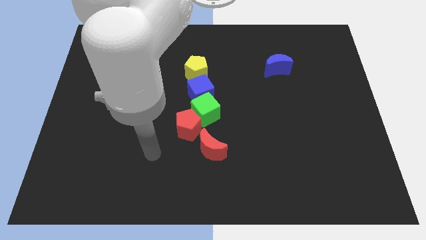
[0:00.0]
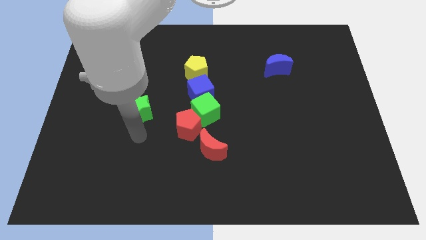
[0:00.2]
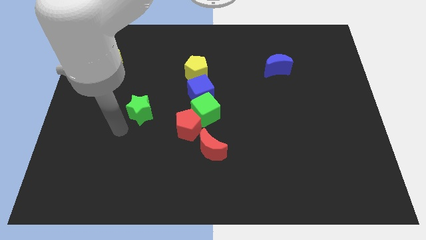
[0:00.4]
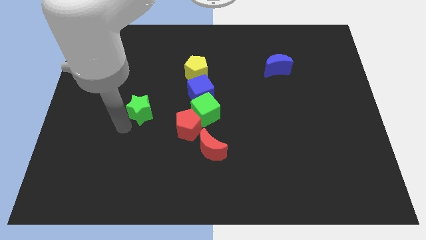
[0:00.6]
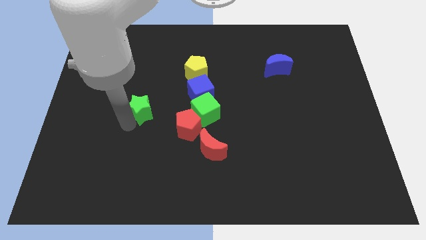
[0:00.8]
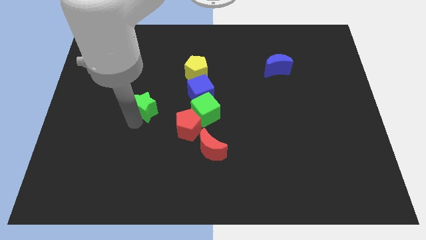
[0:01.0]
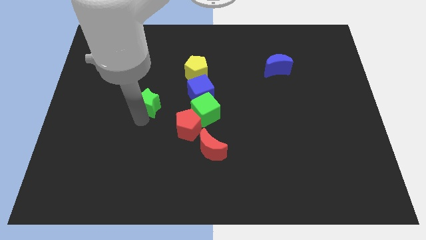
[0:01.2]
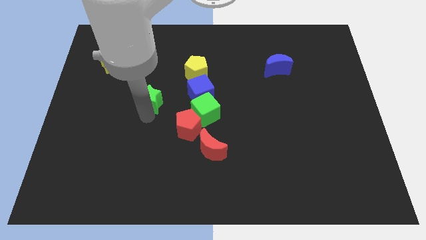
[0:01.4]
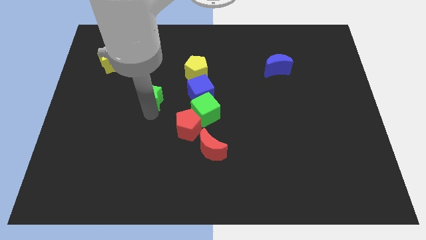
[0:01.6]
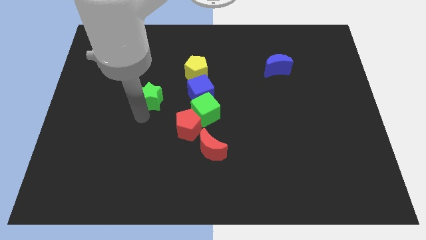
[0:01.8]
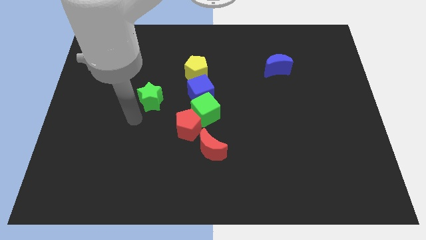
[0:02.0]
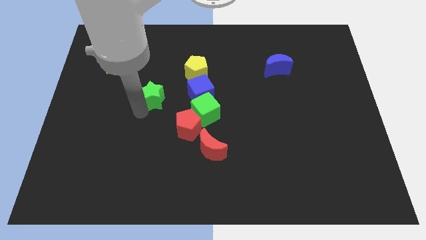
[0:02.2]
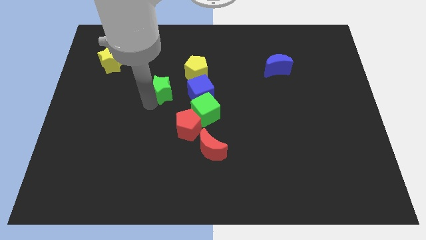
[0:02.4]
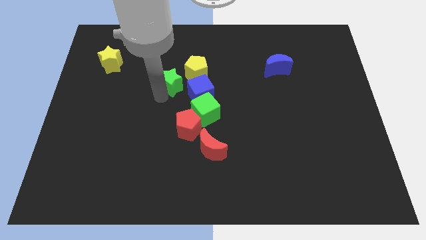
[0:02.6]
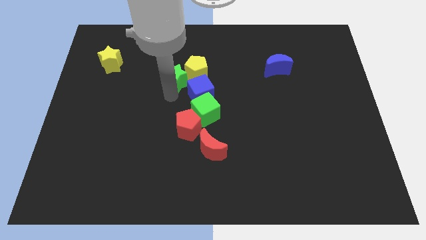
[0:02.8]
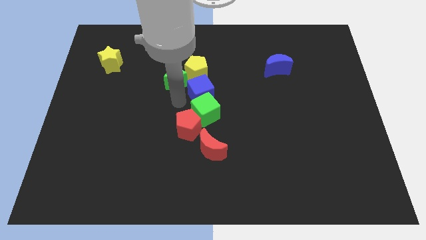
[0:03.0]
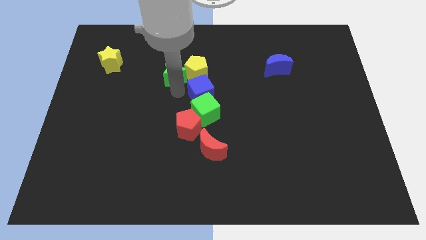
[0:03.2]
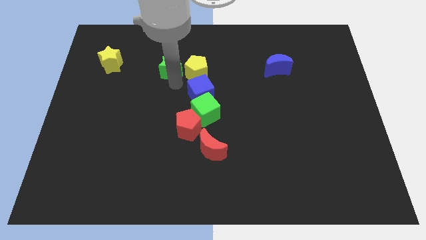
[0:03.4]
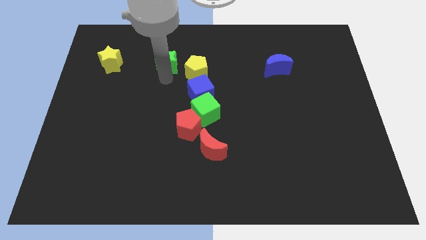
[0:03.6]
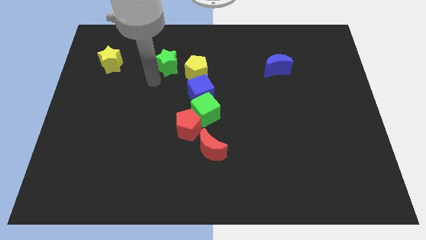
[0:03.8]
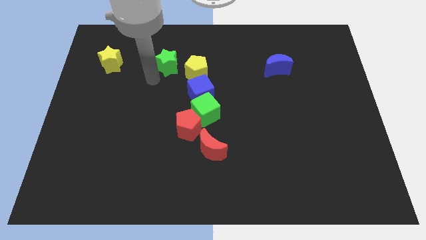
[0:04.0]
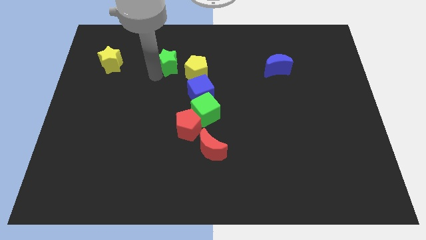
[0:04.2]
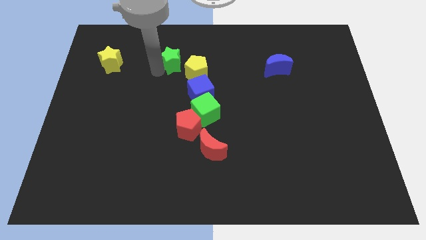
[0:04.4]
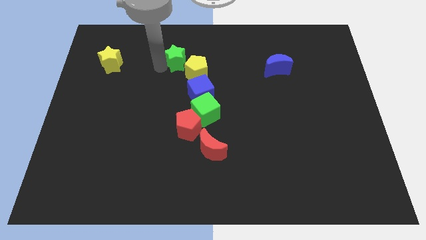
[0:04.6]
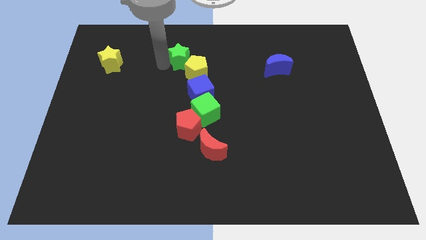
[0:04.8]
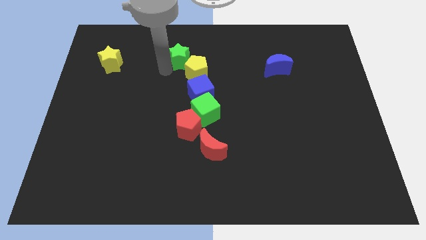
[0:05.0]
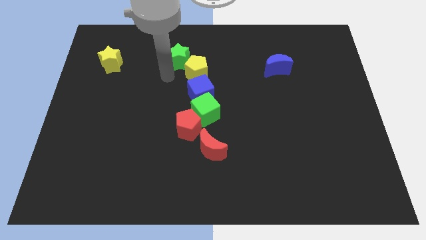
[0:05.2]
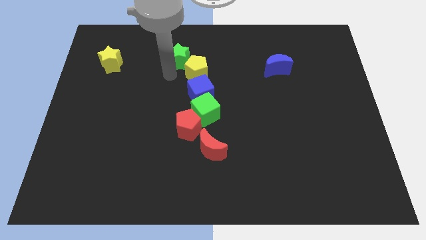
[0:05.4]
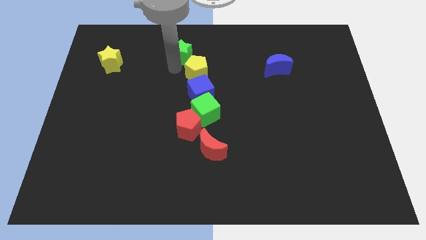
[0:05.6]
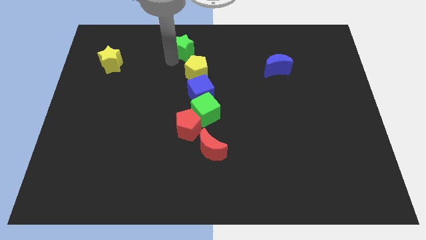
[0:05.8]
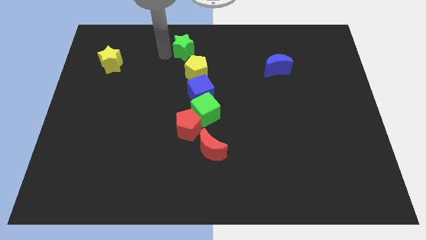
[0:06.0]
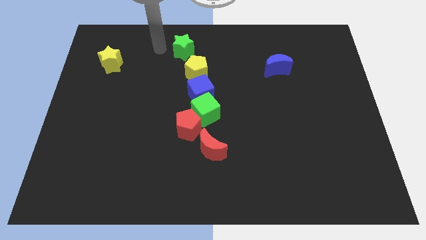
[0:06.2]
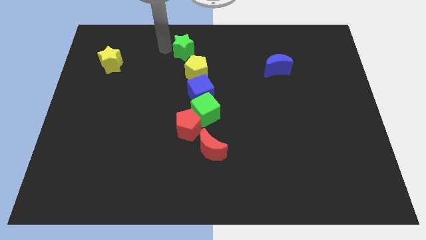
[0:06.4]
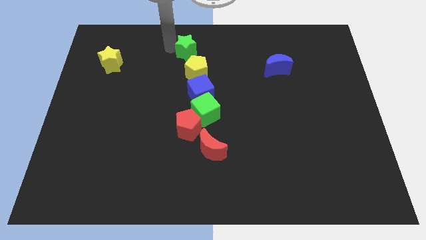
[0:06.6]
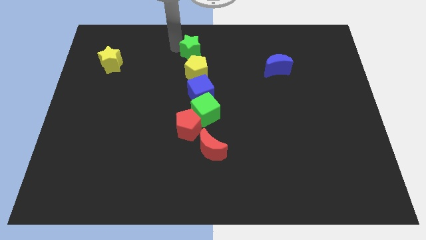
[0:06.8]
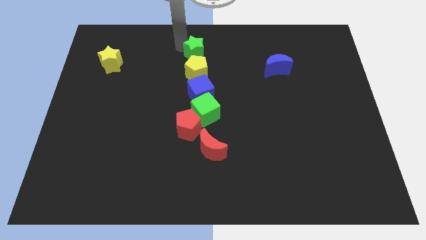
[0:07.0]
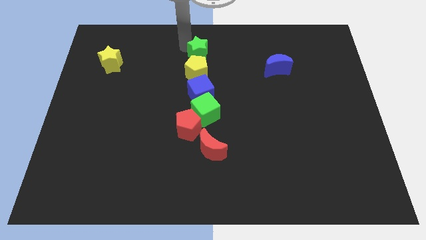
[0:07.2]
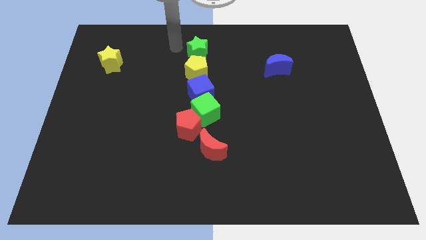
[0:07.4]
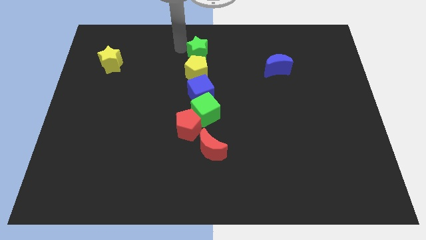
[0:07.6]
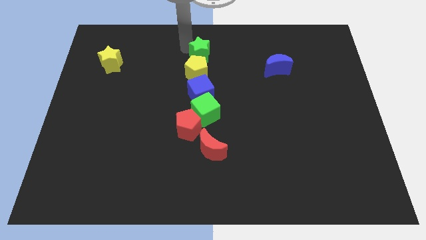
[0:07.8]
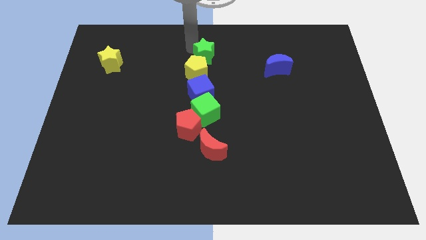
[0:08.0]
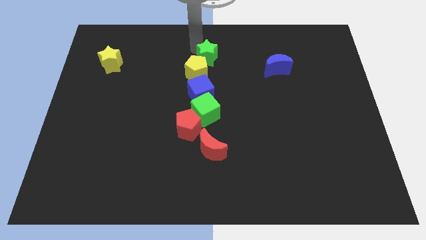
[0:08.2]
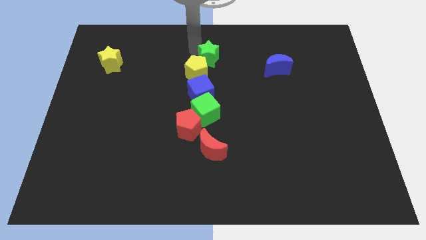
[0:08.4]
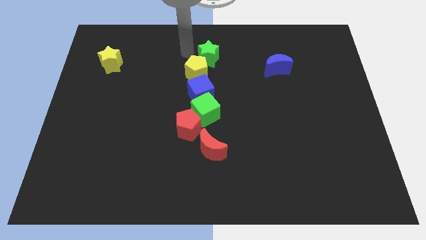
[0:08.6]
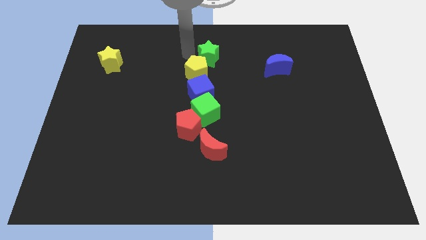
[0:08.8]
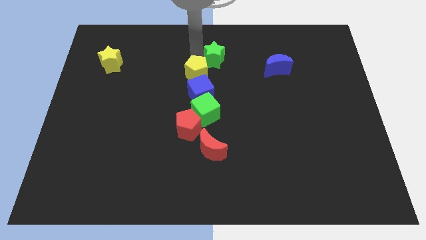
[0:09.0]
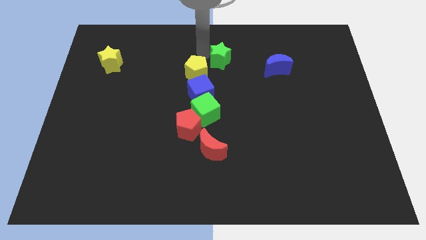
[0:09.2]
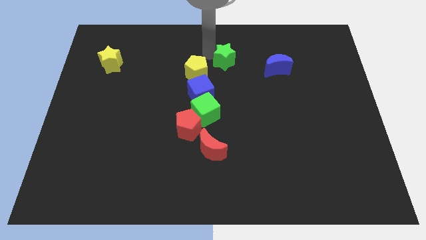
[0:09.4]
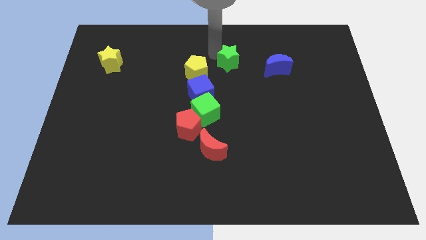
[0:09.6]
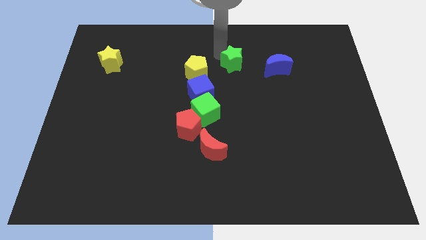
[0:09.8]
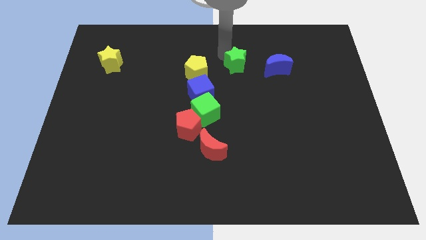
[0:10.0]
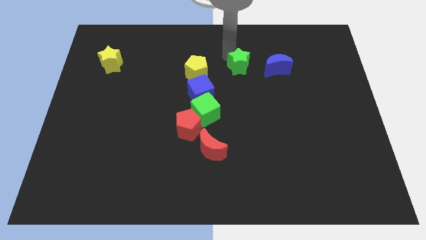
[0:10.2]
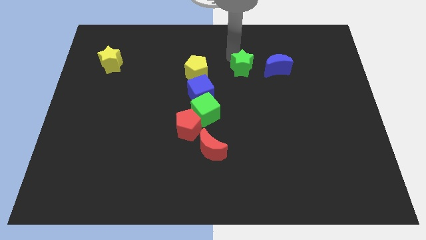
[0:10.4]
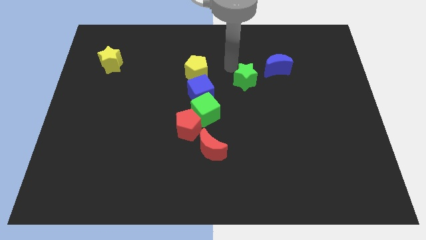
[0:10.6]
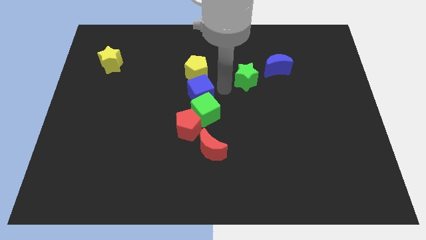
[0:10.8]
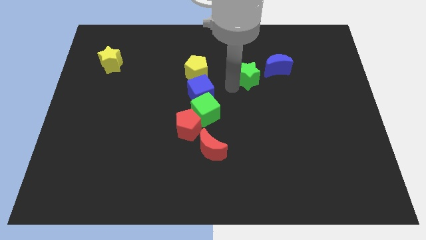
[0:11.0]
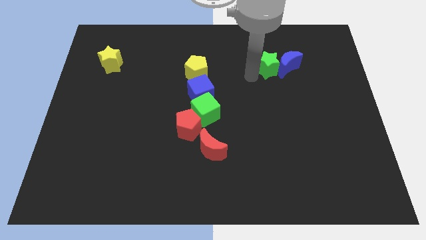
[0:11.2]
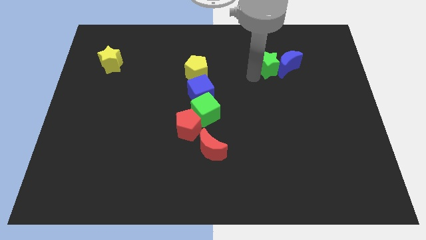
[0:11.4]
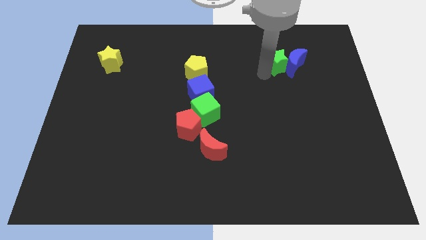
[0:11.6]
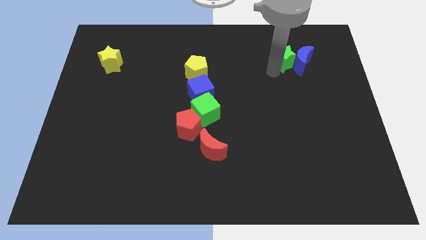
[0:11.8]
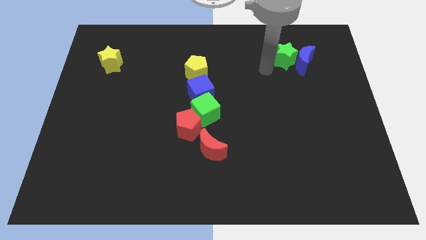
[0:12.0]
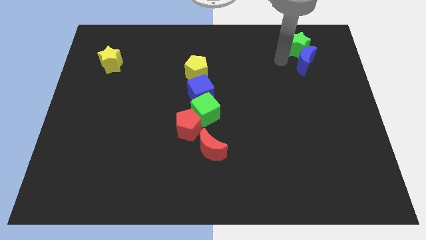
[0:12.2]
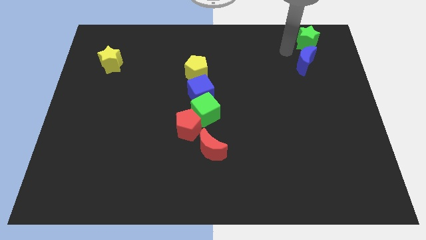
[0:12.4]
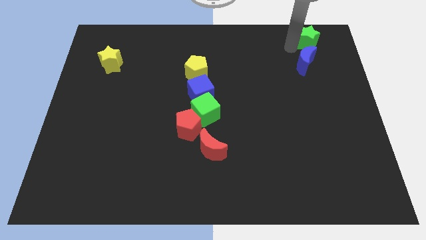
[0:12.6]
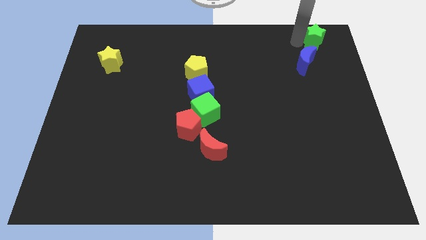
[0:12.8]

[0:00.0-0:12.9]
slide the green star to the top right
